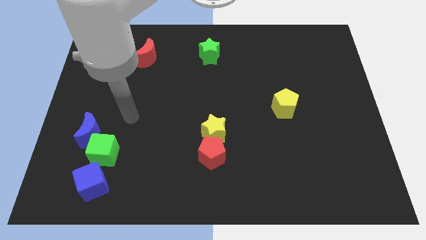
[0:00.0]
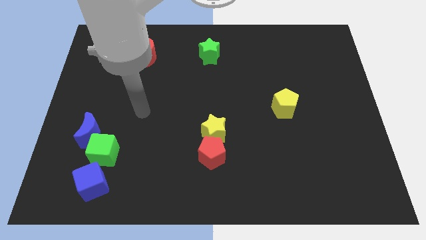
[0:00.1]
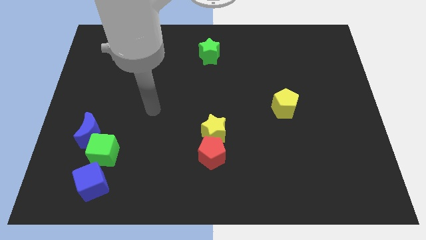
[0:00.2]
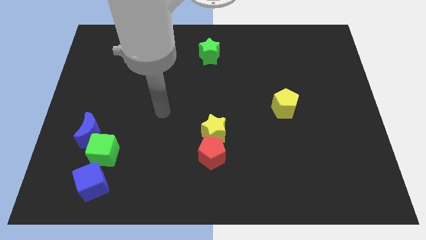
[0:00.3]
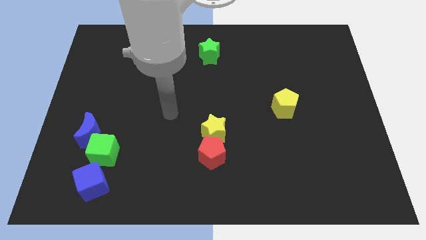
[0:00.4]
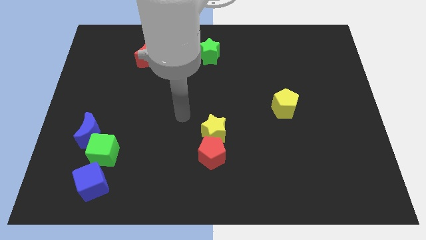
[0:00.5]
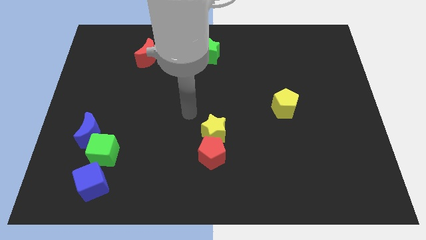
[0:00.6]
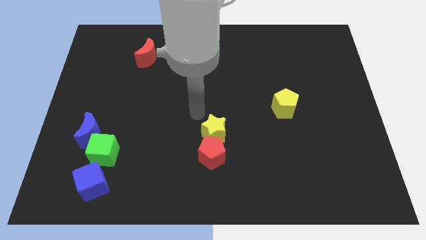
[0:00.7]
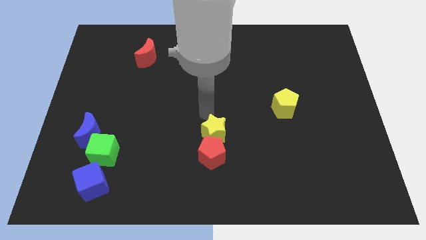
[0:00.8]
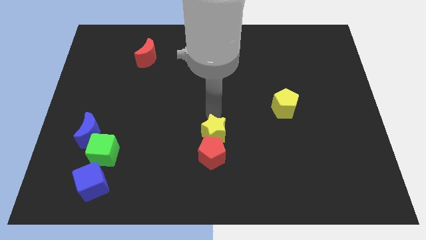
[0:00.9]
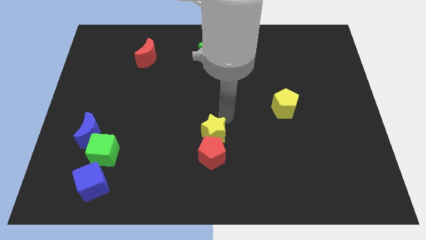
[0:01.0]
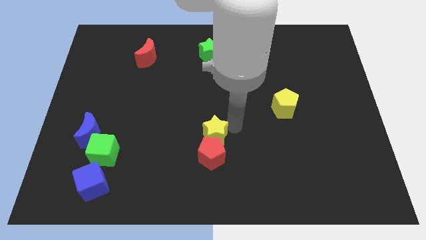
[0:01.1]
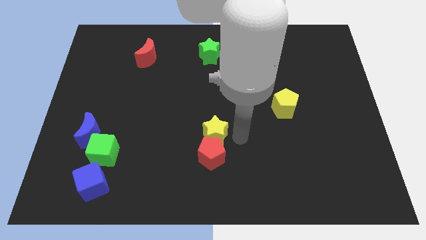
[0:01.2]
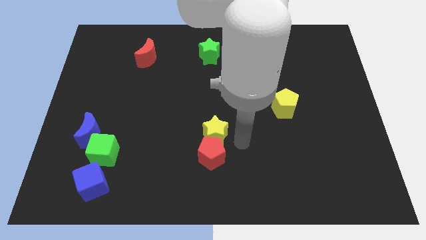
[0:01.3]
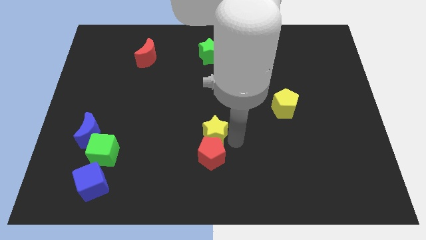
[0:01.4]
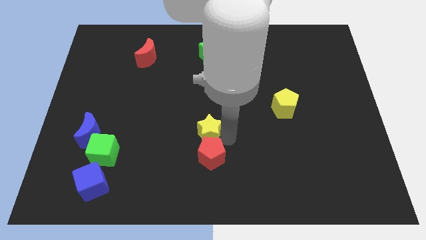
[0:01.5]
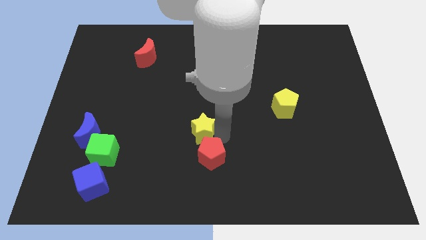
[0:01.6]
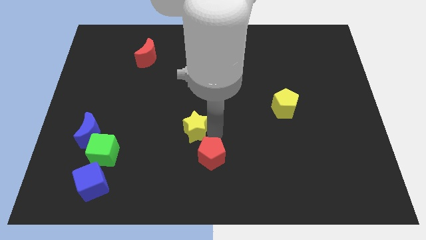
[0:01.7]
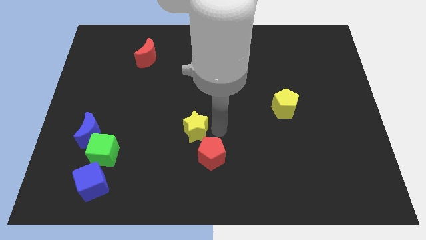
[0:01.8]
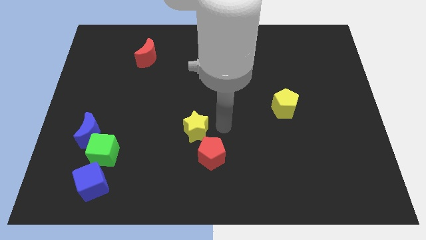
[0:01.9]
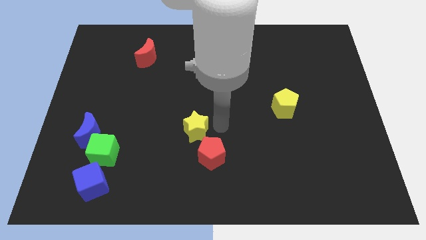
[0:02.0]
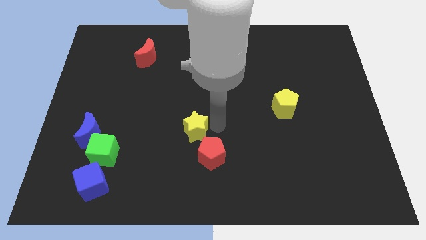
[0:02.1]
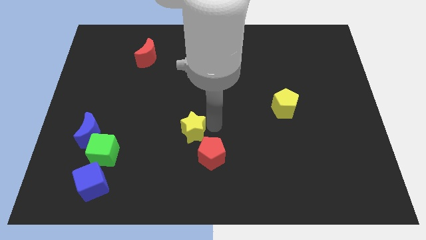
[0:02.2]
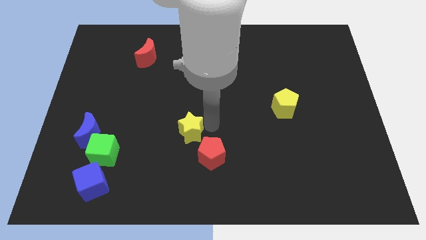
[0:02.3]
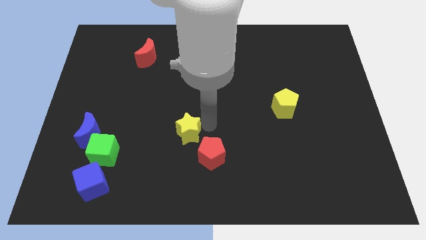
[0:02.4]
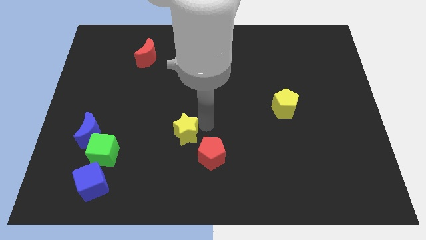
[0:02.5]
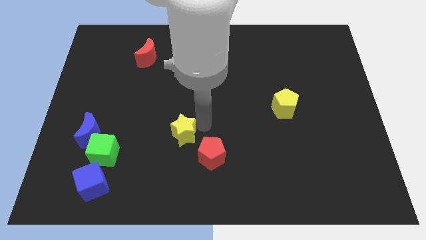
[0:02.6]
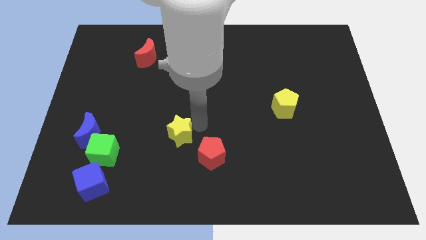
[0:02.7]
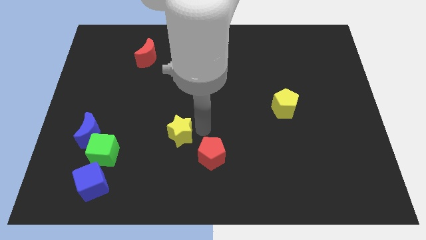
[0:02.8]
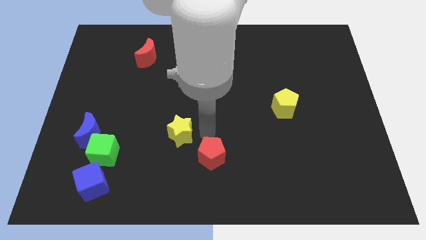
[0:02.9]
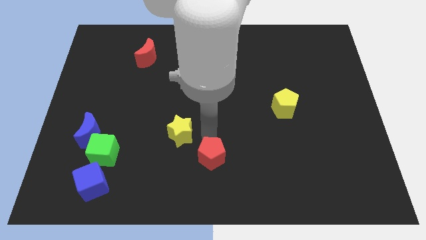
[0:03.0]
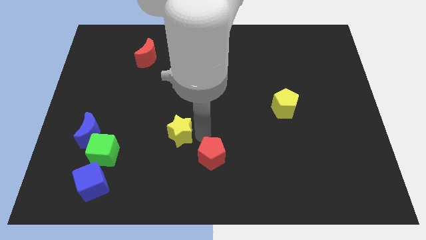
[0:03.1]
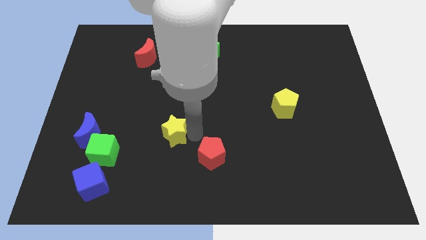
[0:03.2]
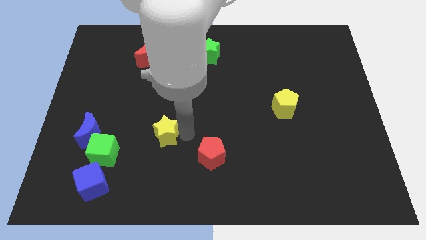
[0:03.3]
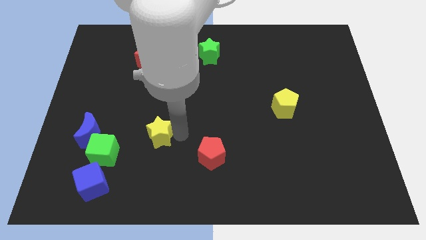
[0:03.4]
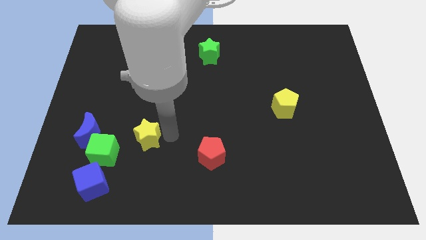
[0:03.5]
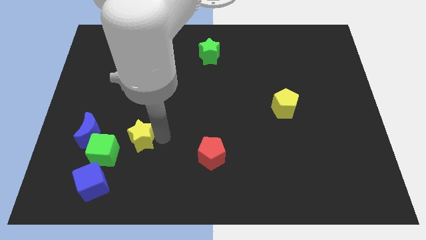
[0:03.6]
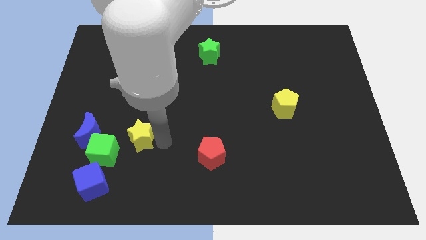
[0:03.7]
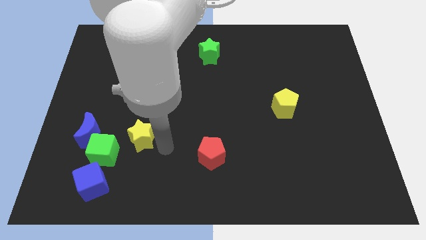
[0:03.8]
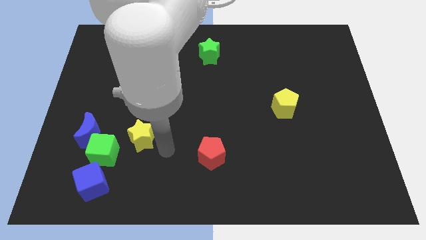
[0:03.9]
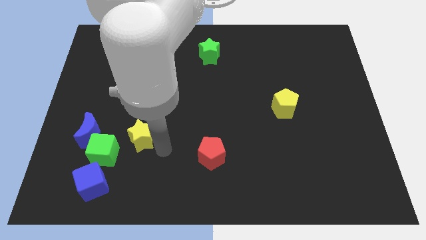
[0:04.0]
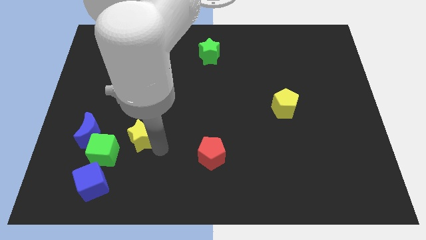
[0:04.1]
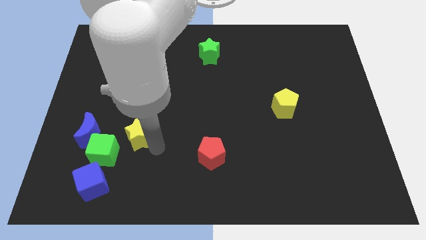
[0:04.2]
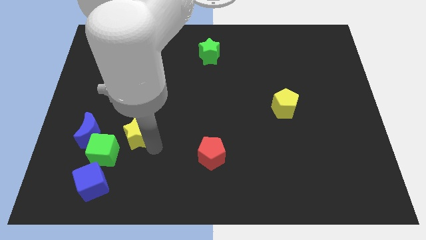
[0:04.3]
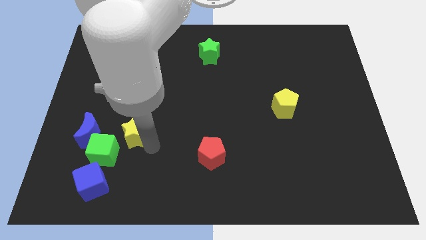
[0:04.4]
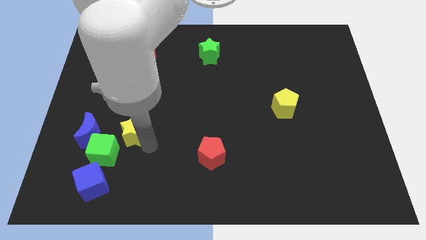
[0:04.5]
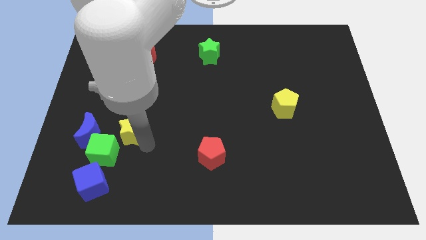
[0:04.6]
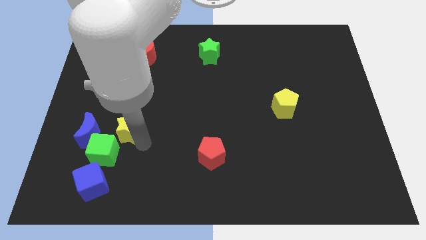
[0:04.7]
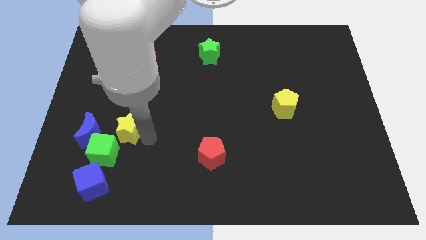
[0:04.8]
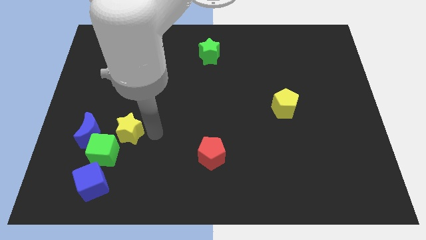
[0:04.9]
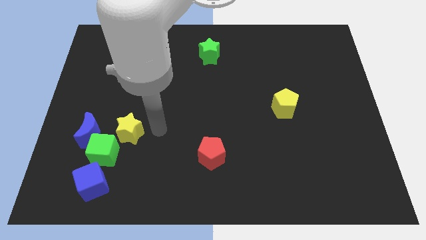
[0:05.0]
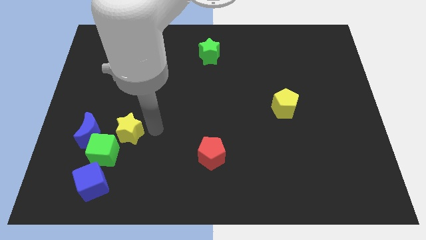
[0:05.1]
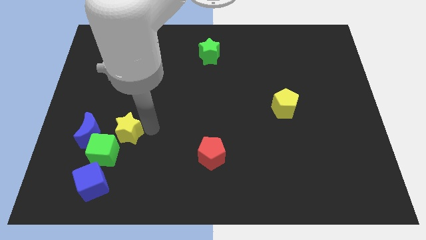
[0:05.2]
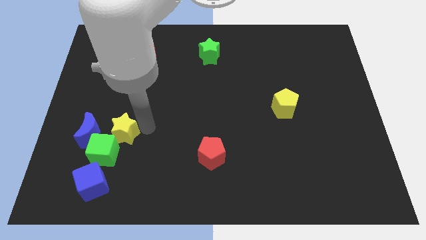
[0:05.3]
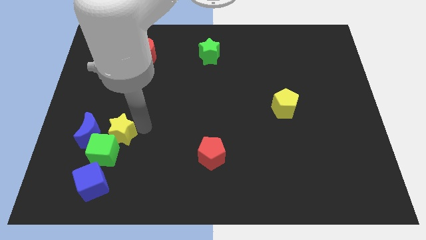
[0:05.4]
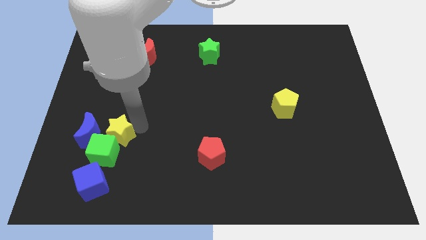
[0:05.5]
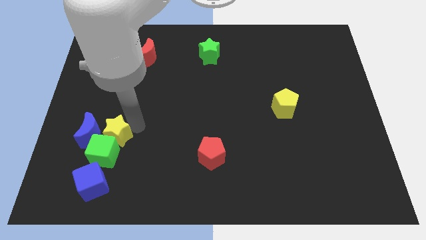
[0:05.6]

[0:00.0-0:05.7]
move the yellow star to the blue moon

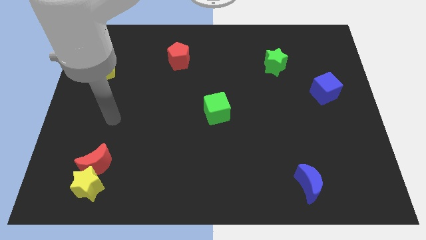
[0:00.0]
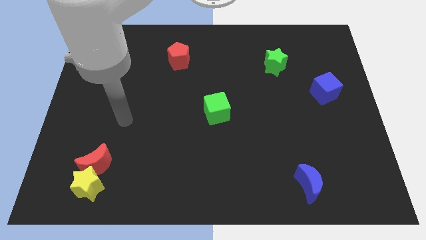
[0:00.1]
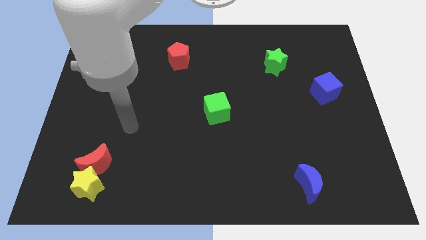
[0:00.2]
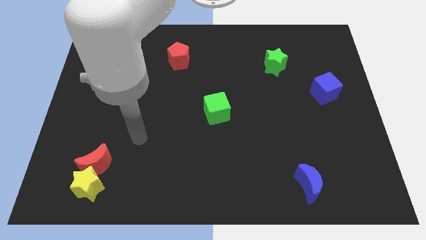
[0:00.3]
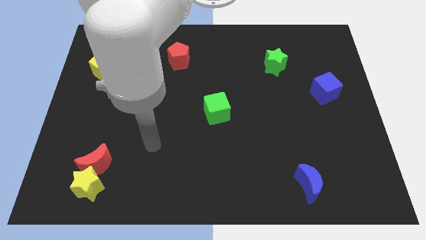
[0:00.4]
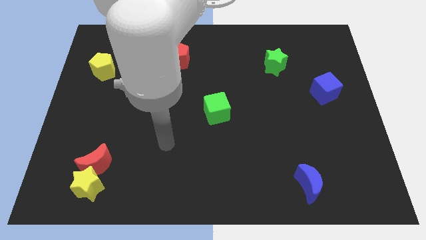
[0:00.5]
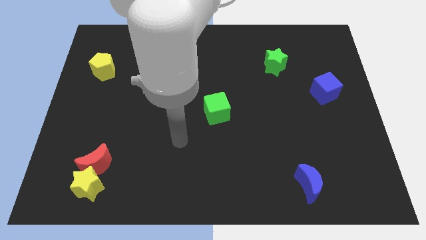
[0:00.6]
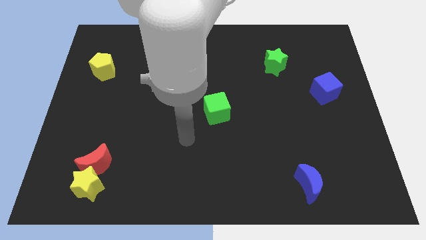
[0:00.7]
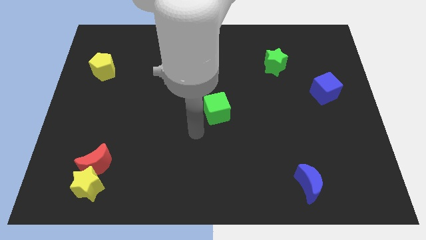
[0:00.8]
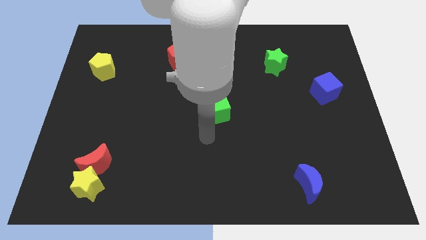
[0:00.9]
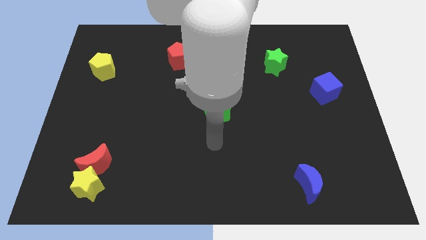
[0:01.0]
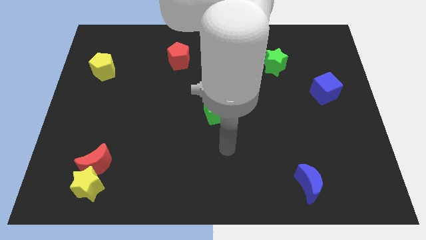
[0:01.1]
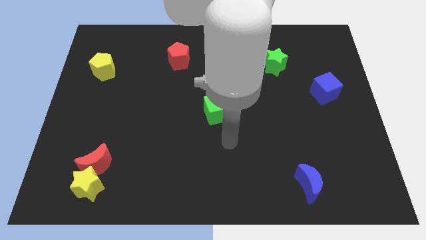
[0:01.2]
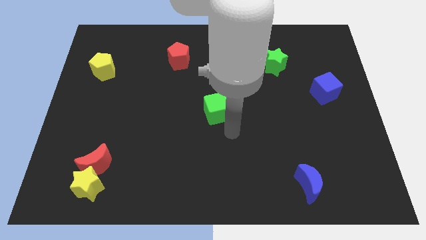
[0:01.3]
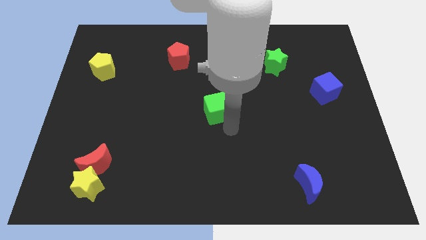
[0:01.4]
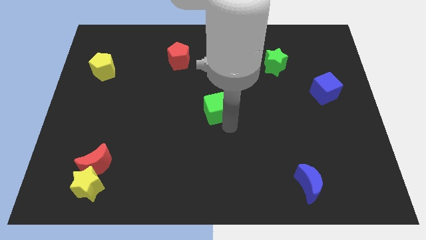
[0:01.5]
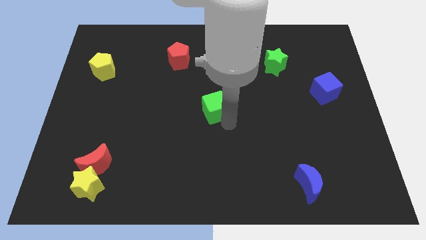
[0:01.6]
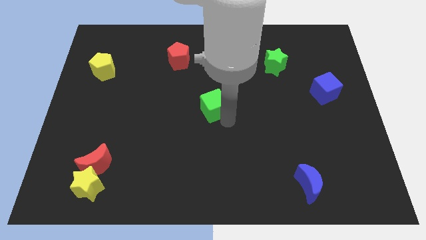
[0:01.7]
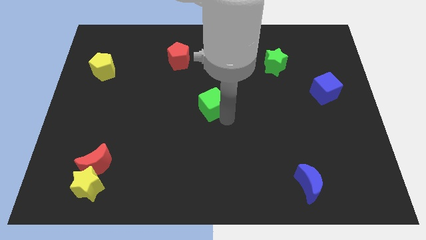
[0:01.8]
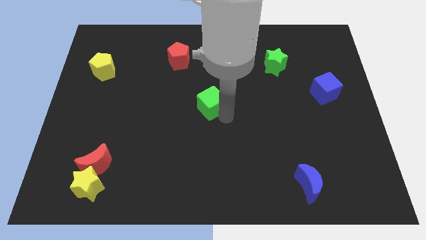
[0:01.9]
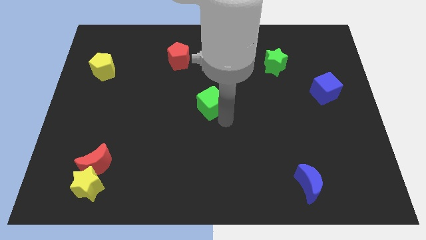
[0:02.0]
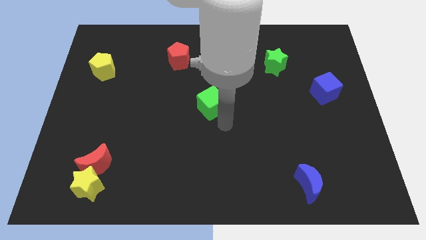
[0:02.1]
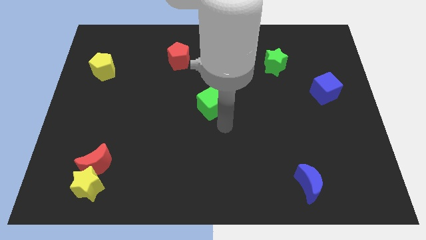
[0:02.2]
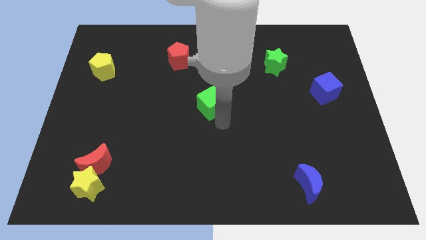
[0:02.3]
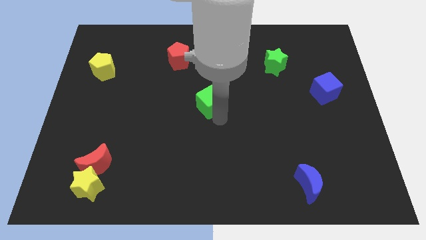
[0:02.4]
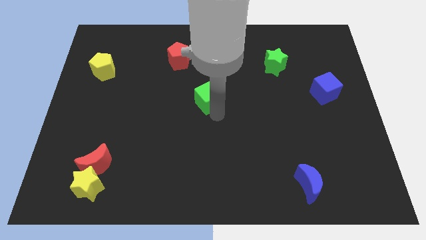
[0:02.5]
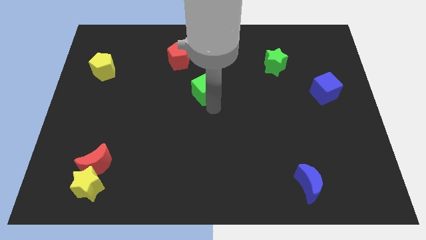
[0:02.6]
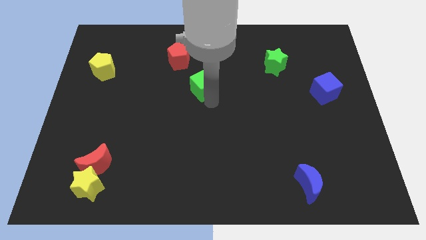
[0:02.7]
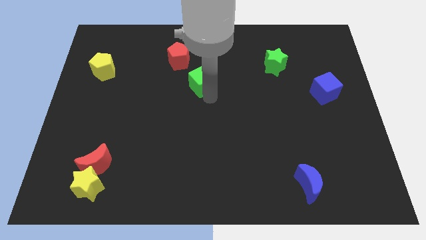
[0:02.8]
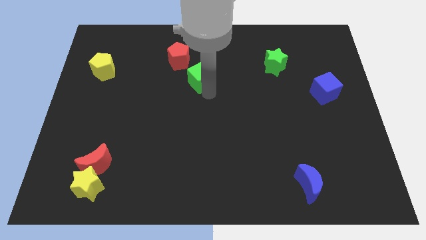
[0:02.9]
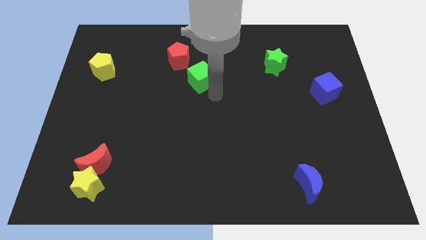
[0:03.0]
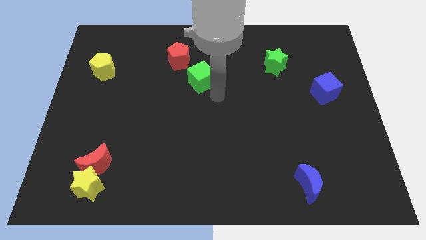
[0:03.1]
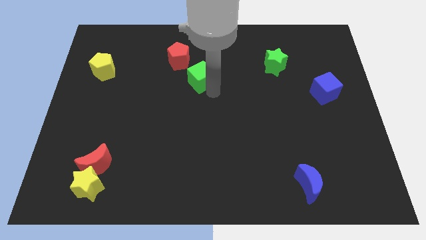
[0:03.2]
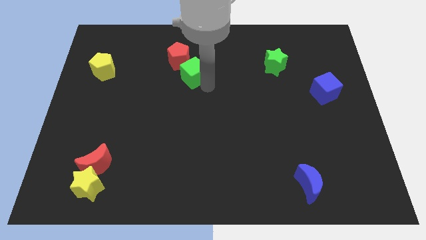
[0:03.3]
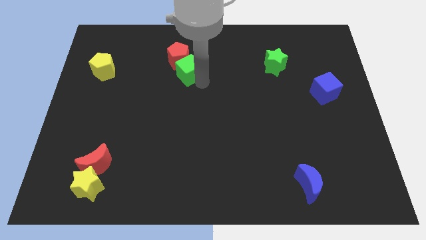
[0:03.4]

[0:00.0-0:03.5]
put the green cube close to the red pentagon
